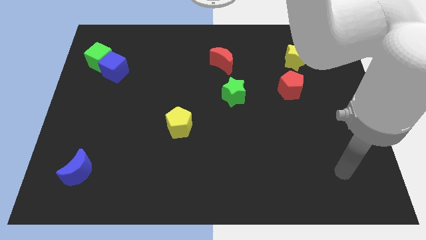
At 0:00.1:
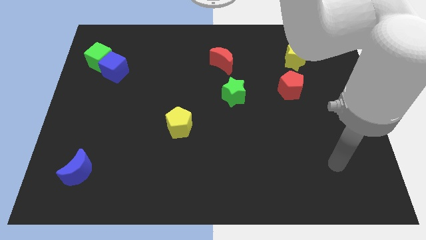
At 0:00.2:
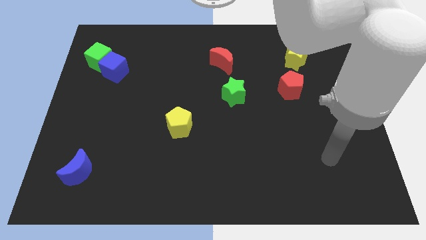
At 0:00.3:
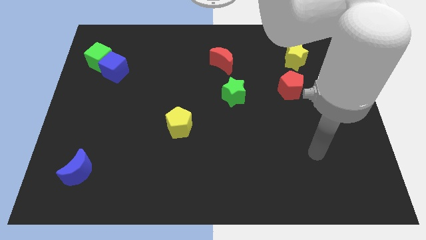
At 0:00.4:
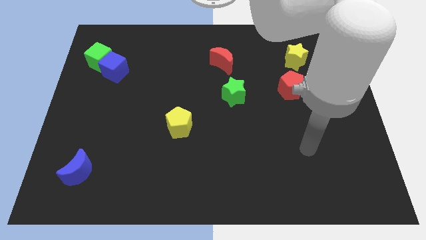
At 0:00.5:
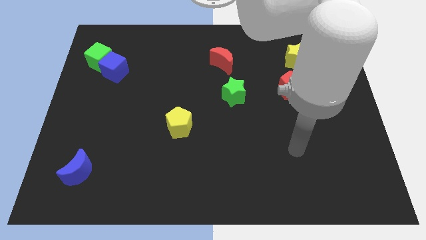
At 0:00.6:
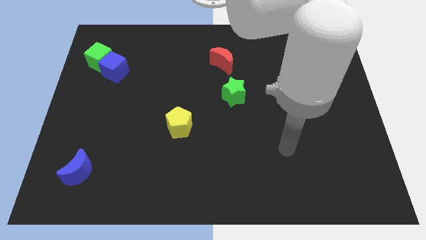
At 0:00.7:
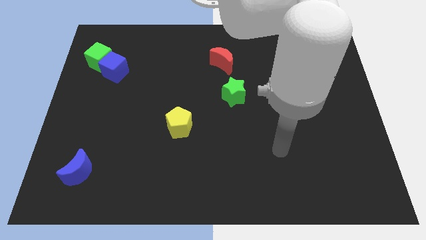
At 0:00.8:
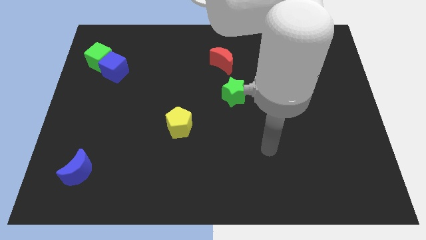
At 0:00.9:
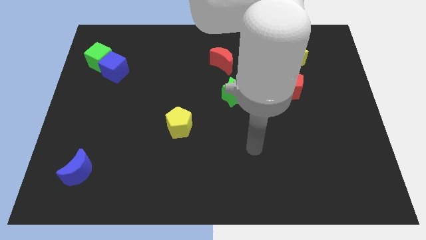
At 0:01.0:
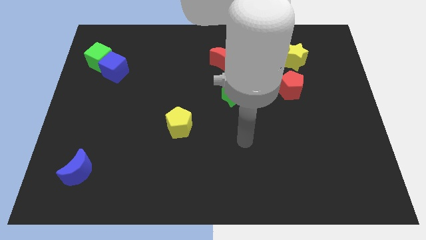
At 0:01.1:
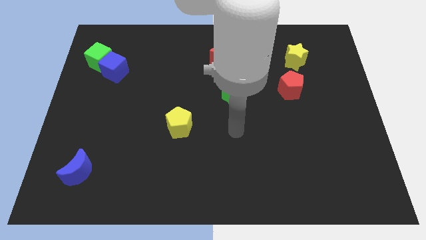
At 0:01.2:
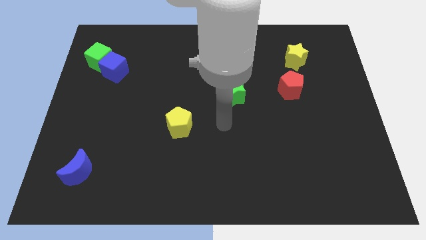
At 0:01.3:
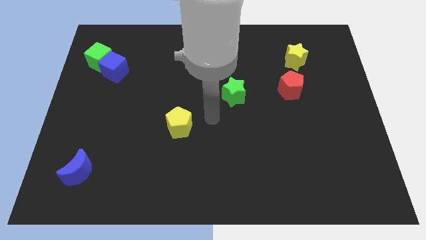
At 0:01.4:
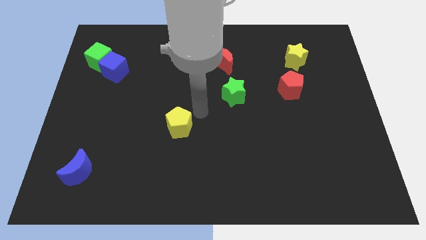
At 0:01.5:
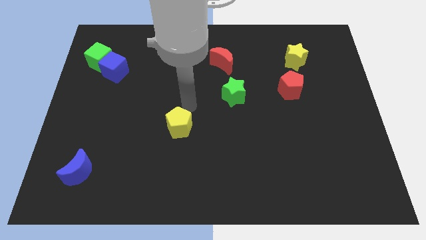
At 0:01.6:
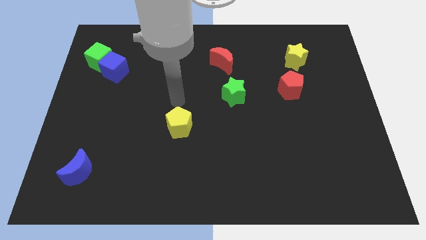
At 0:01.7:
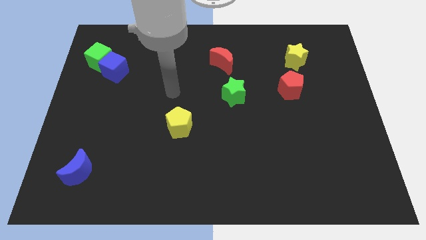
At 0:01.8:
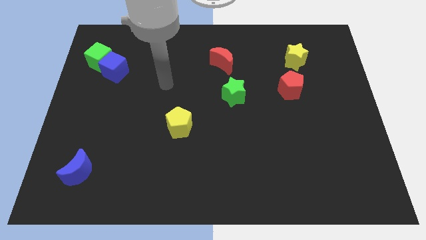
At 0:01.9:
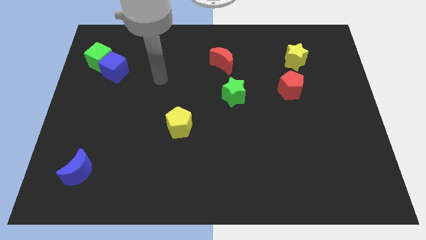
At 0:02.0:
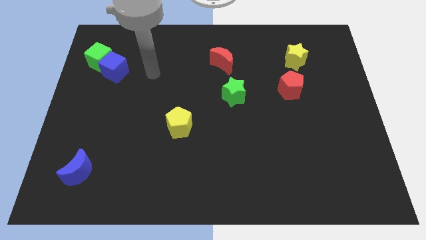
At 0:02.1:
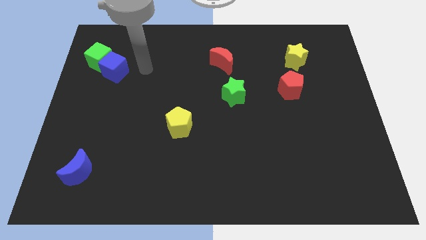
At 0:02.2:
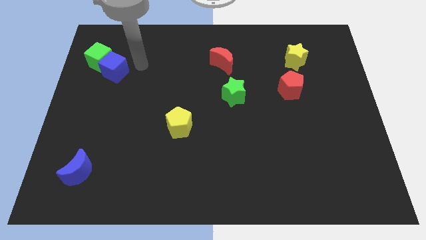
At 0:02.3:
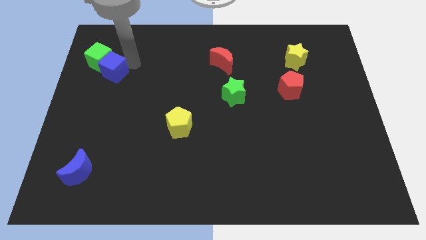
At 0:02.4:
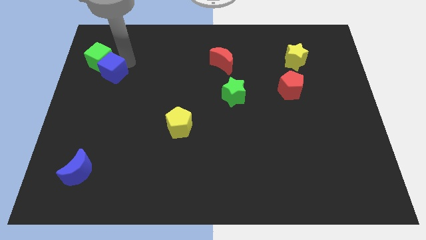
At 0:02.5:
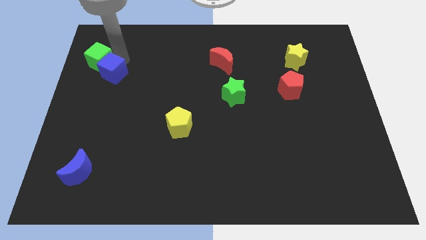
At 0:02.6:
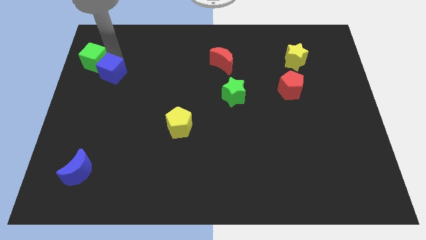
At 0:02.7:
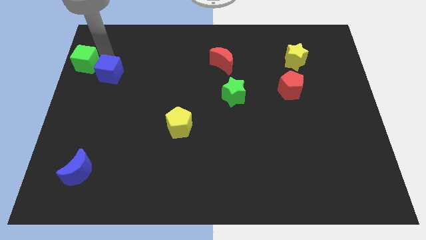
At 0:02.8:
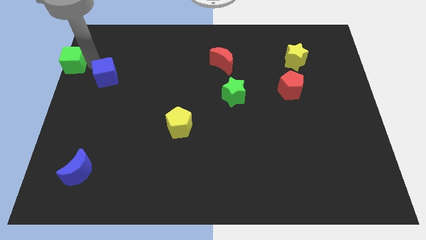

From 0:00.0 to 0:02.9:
pull the blue cube apart from the green cube

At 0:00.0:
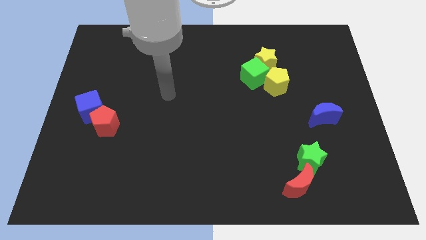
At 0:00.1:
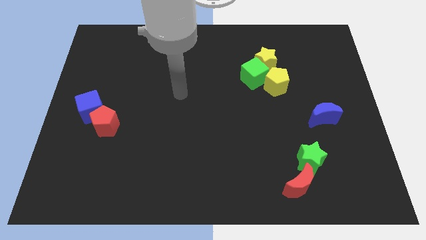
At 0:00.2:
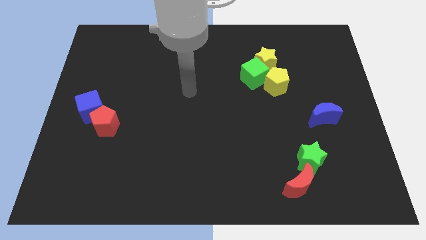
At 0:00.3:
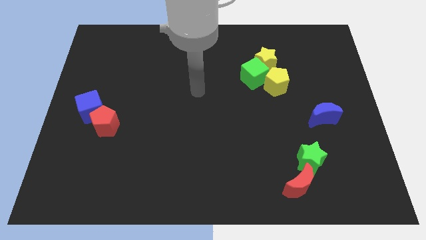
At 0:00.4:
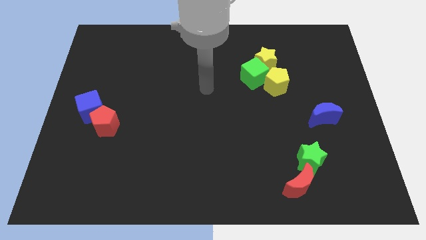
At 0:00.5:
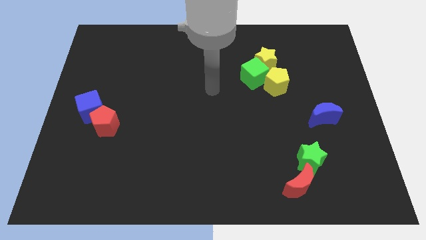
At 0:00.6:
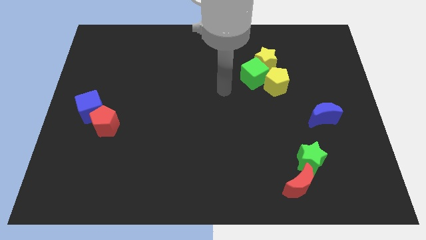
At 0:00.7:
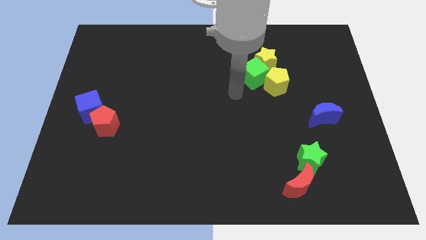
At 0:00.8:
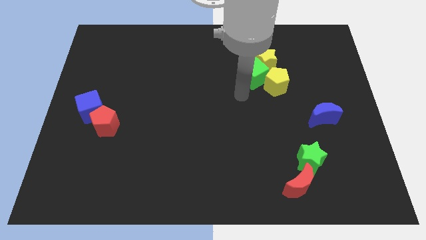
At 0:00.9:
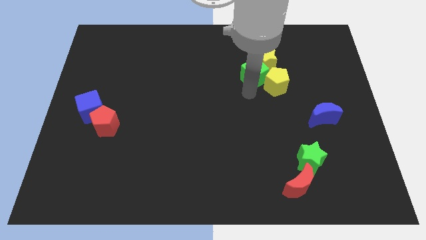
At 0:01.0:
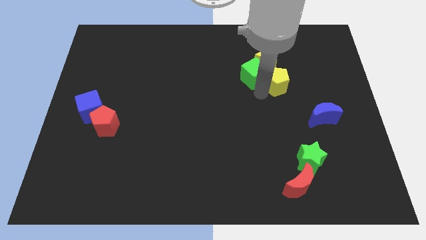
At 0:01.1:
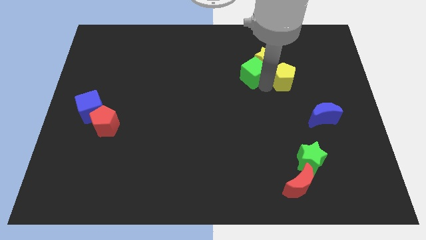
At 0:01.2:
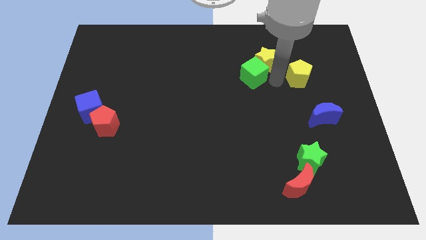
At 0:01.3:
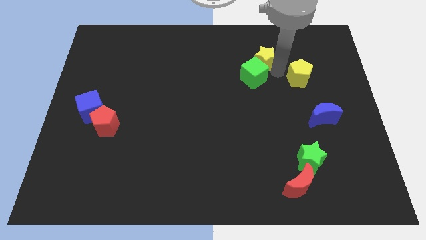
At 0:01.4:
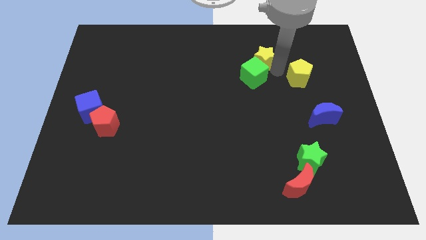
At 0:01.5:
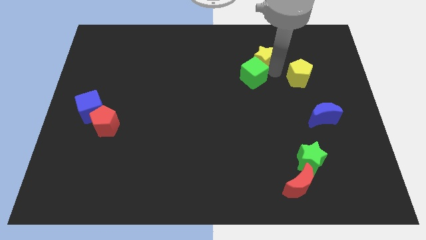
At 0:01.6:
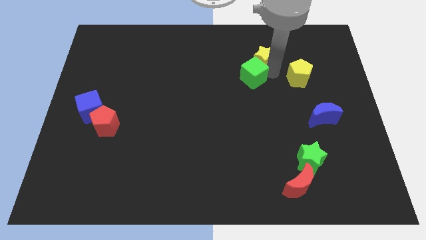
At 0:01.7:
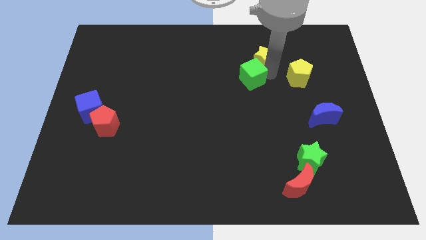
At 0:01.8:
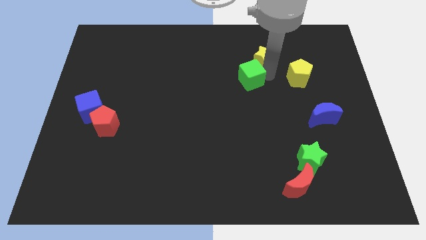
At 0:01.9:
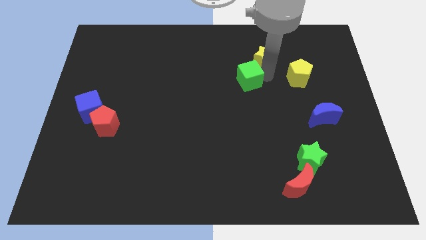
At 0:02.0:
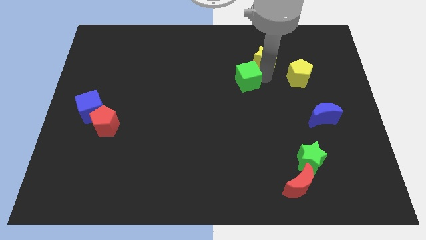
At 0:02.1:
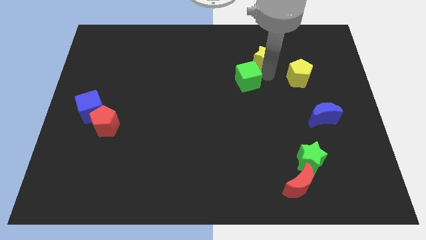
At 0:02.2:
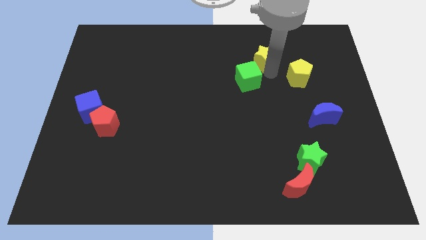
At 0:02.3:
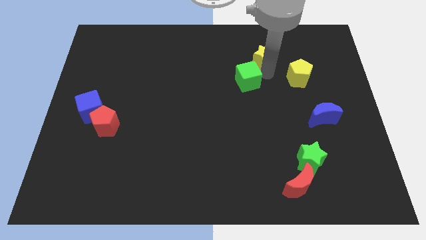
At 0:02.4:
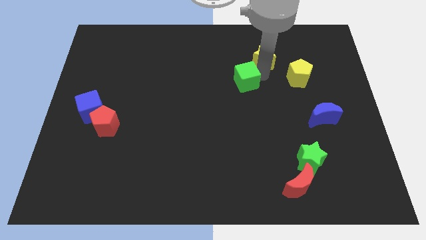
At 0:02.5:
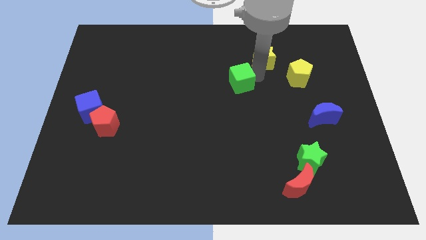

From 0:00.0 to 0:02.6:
separate the green cube from the yellow star and yellow pentagon

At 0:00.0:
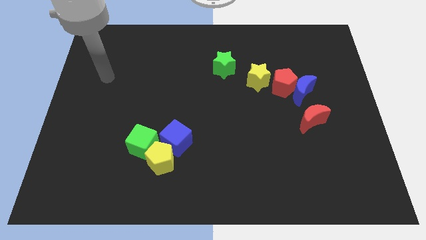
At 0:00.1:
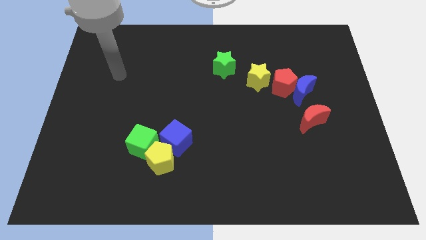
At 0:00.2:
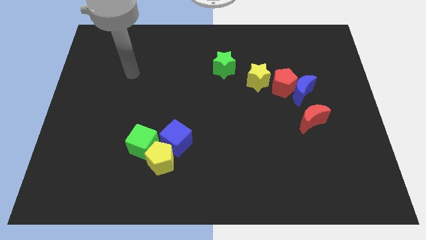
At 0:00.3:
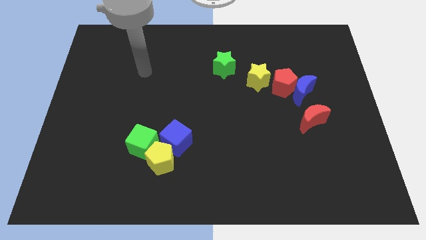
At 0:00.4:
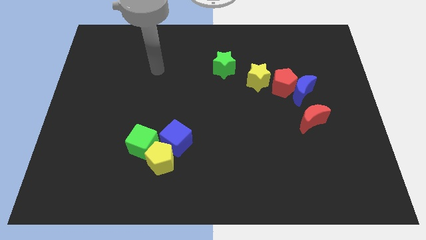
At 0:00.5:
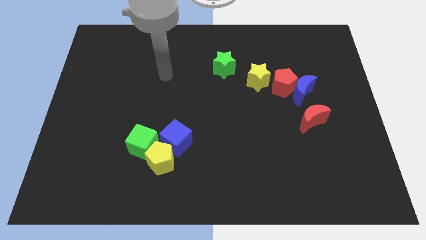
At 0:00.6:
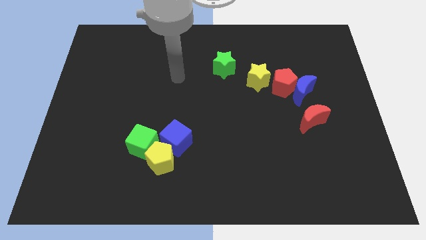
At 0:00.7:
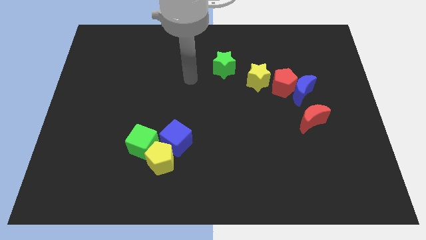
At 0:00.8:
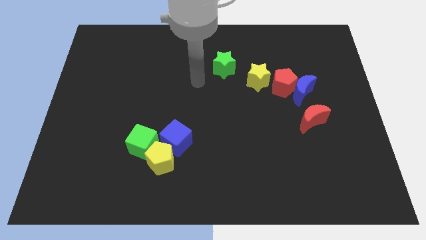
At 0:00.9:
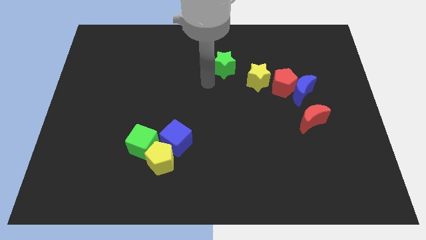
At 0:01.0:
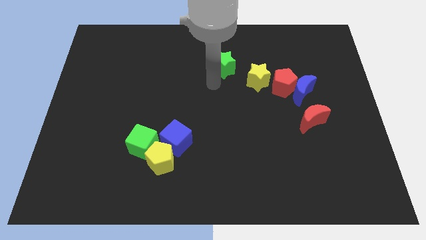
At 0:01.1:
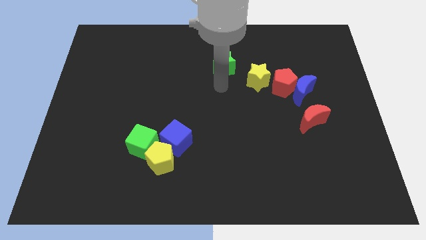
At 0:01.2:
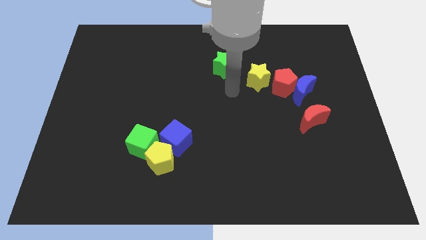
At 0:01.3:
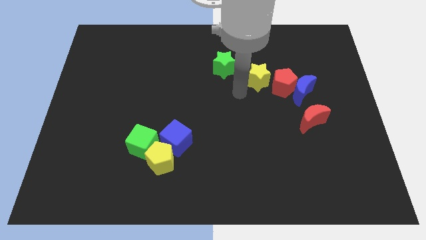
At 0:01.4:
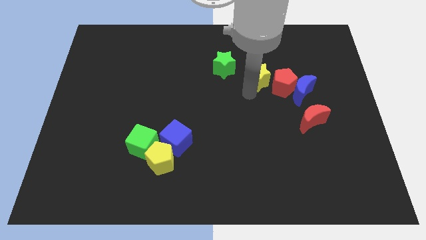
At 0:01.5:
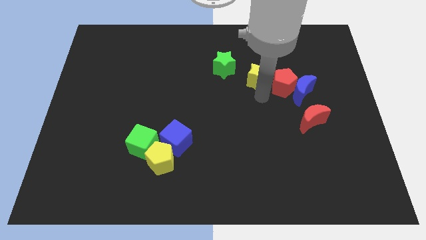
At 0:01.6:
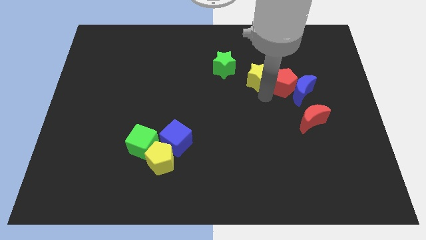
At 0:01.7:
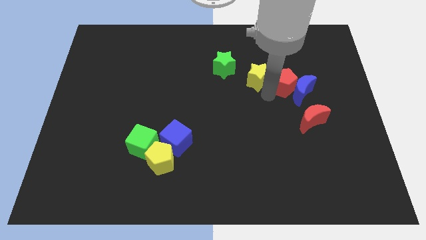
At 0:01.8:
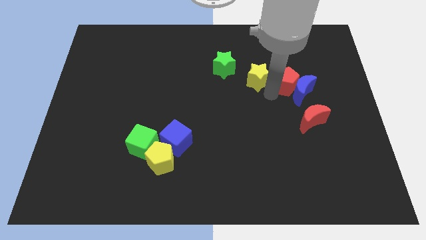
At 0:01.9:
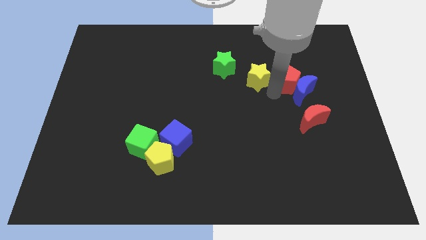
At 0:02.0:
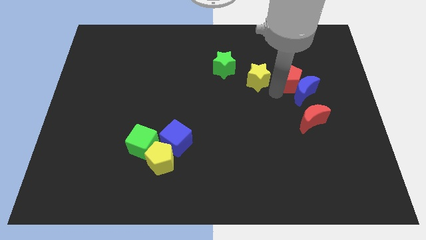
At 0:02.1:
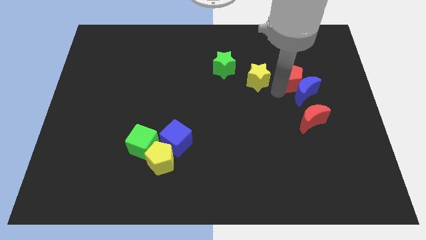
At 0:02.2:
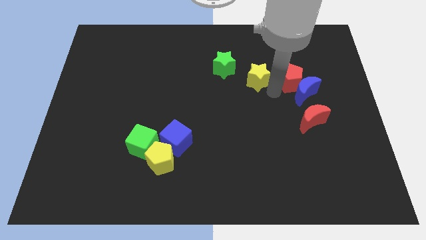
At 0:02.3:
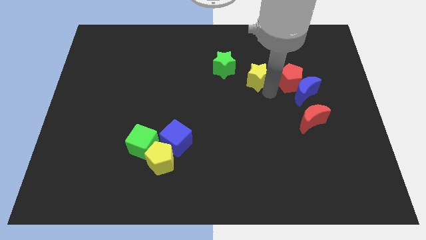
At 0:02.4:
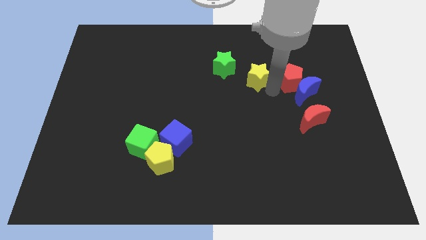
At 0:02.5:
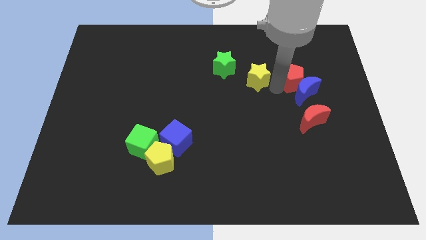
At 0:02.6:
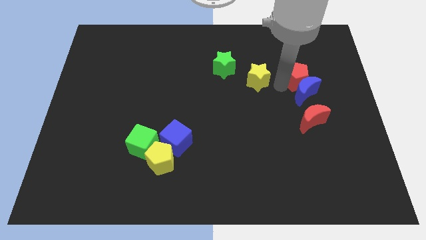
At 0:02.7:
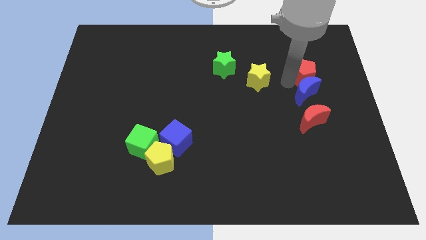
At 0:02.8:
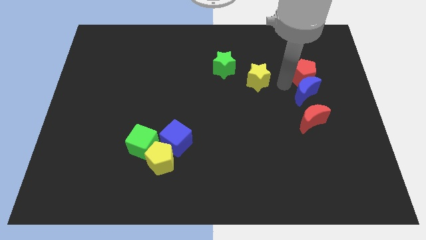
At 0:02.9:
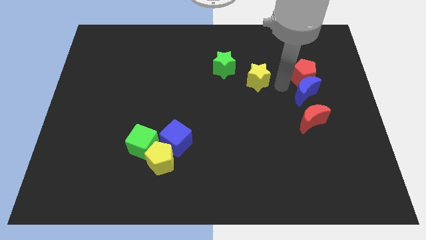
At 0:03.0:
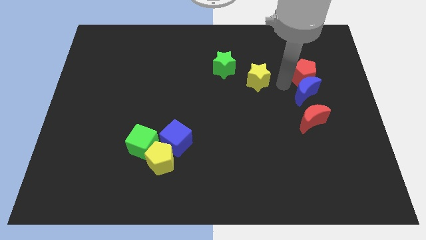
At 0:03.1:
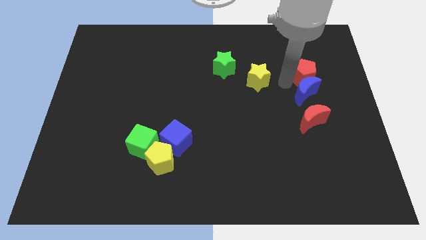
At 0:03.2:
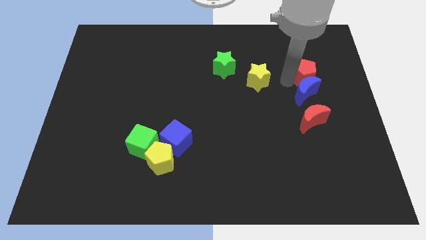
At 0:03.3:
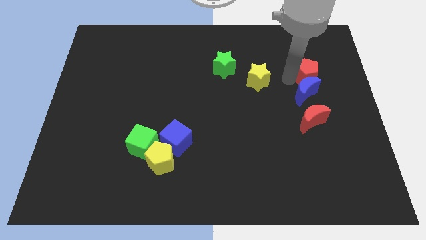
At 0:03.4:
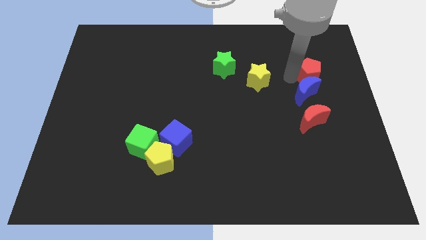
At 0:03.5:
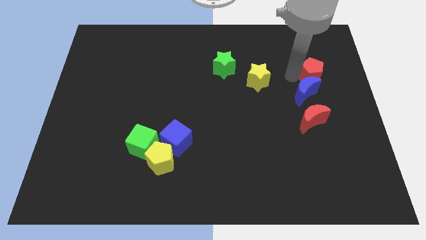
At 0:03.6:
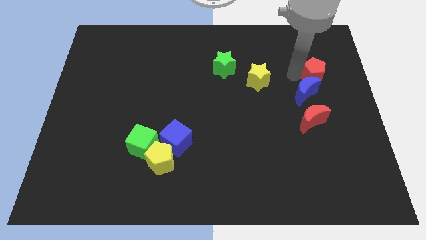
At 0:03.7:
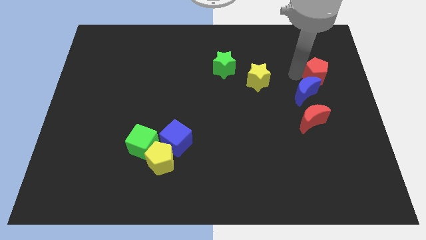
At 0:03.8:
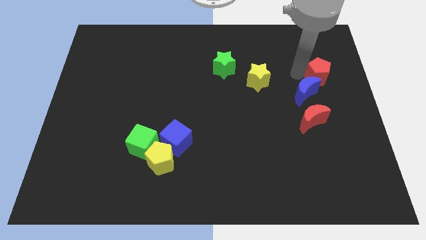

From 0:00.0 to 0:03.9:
pull the red pentagon apart from the blue moon and yellow star
